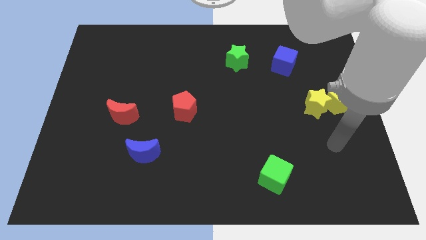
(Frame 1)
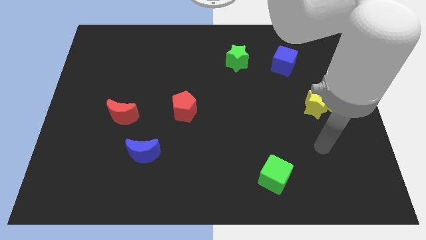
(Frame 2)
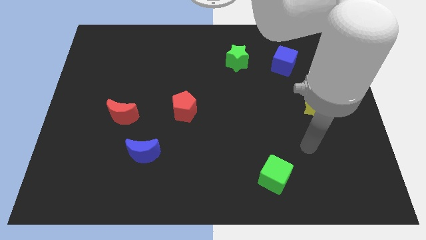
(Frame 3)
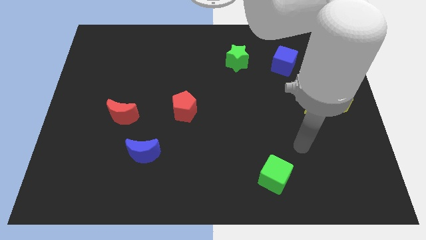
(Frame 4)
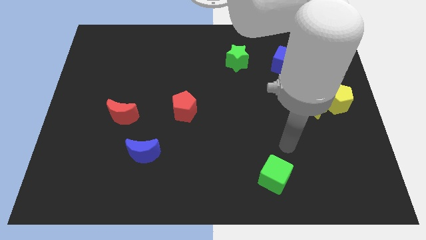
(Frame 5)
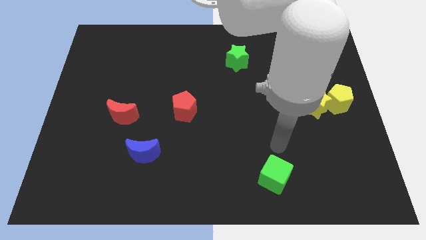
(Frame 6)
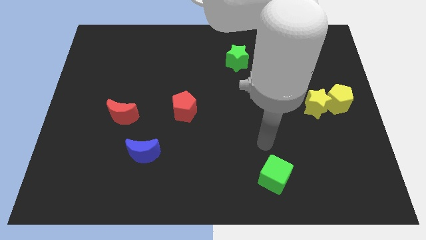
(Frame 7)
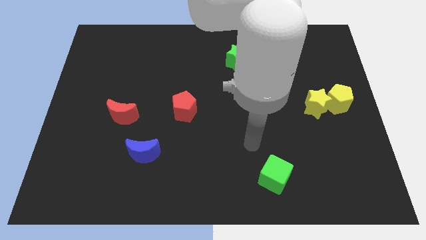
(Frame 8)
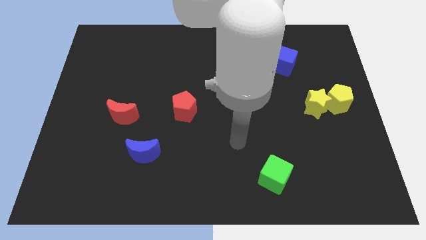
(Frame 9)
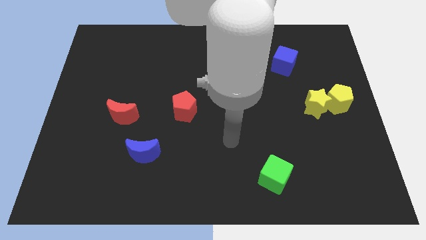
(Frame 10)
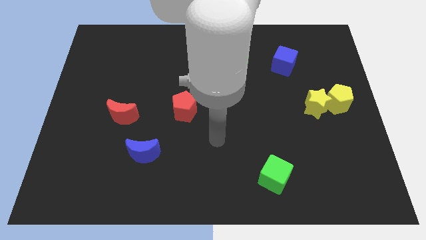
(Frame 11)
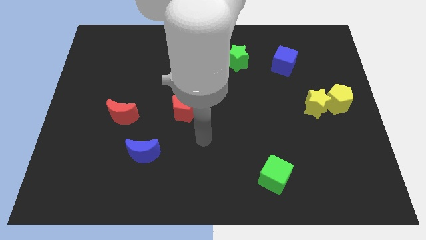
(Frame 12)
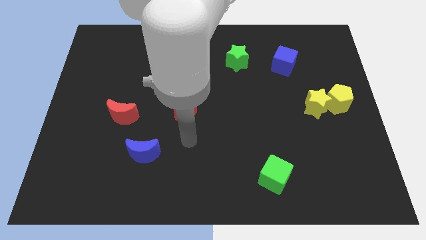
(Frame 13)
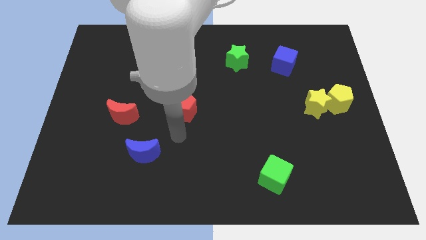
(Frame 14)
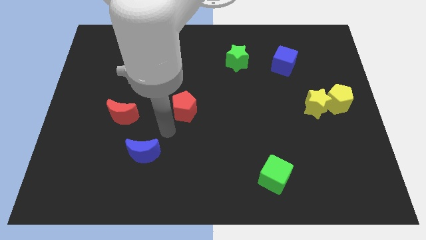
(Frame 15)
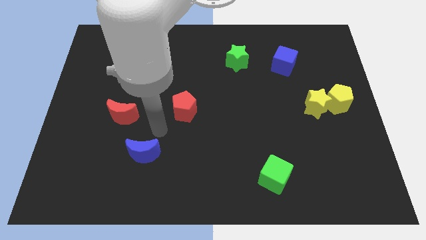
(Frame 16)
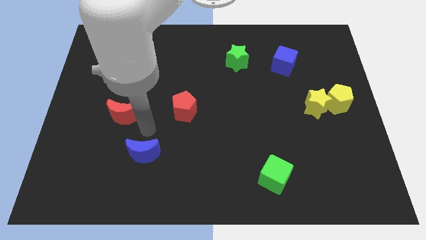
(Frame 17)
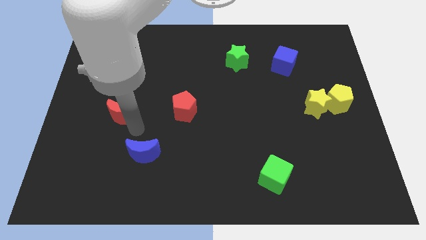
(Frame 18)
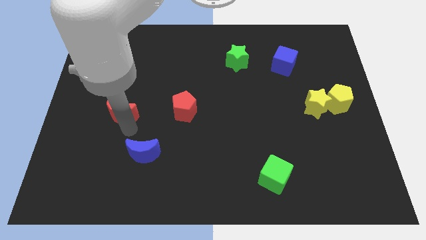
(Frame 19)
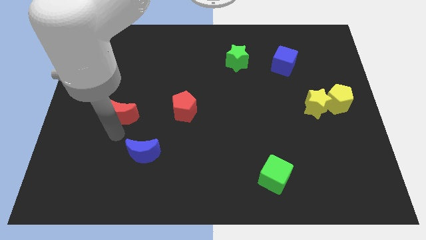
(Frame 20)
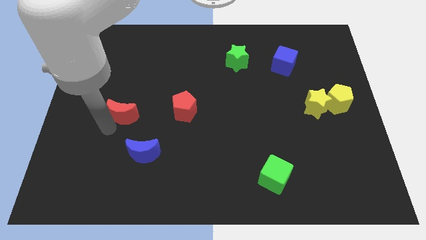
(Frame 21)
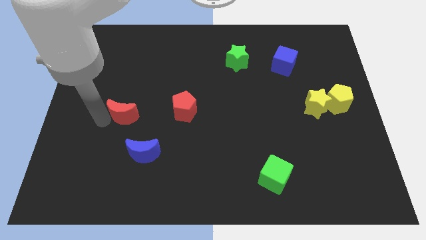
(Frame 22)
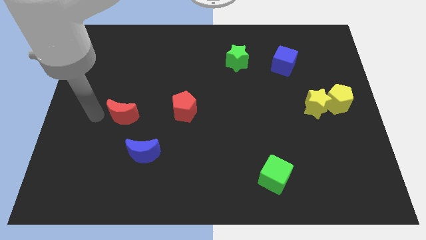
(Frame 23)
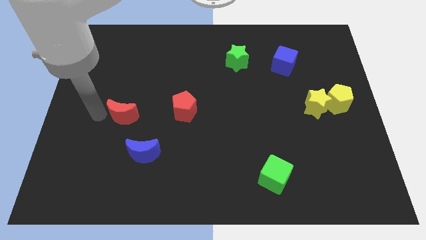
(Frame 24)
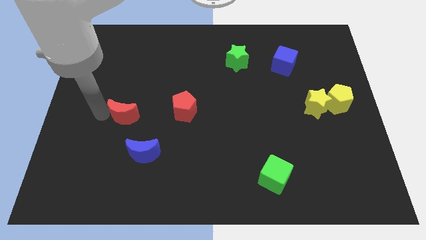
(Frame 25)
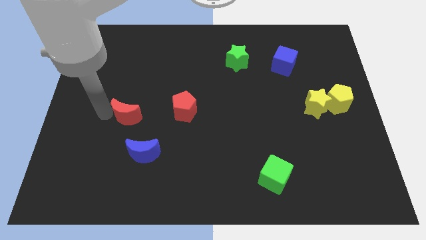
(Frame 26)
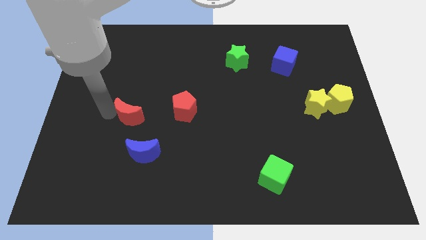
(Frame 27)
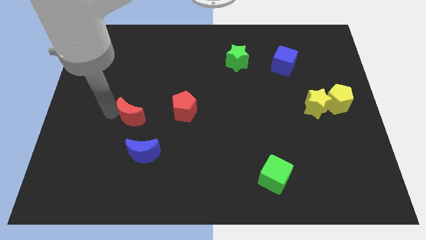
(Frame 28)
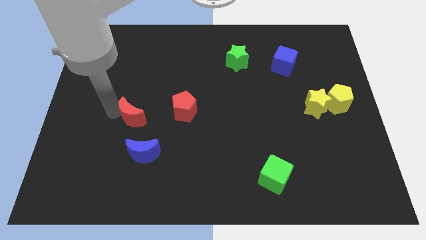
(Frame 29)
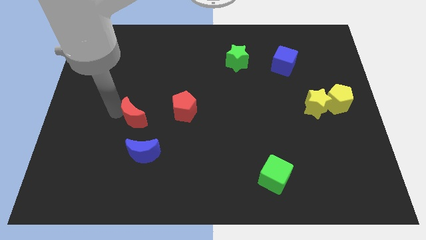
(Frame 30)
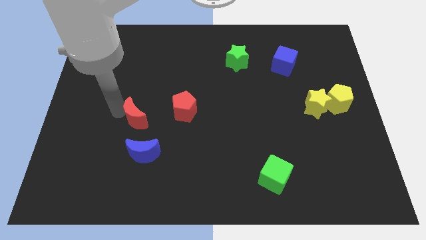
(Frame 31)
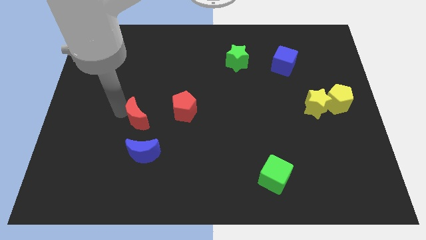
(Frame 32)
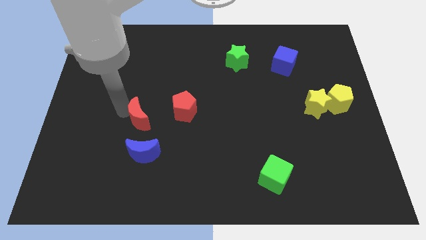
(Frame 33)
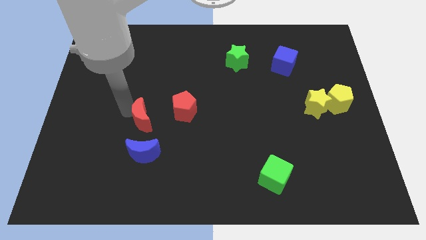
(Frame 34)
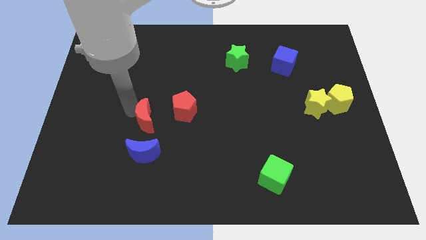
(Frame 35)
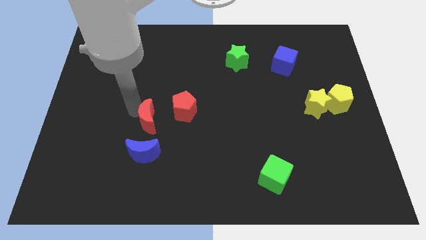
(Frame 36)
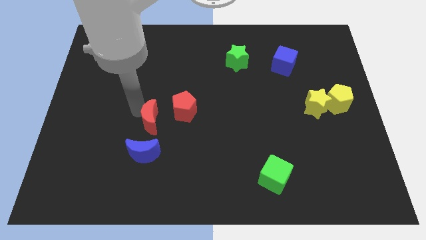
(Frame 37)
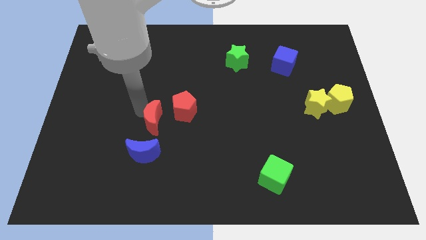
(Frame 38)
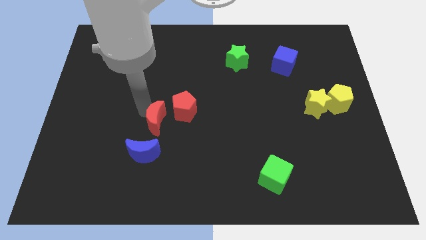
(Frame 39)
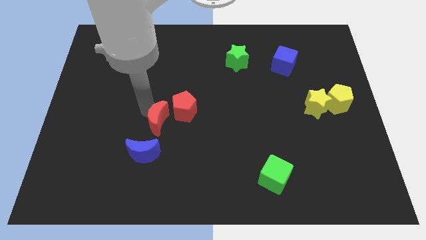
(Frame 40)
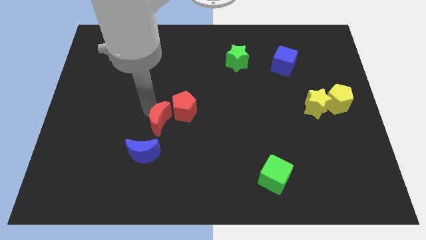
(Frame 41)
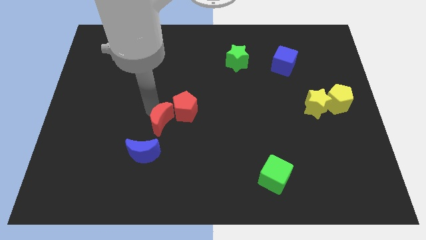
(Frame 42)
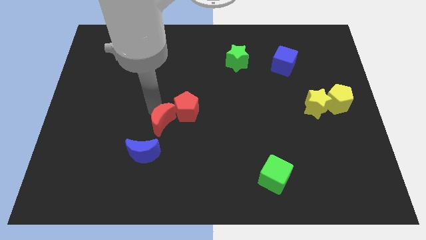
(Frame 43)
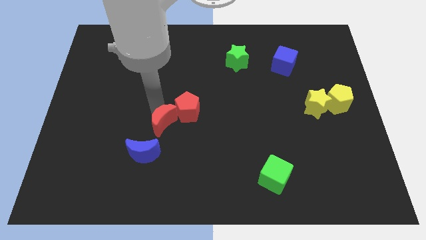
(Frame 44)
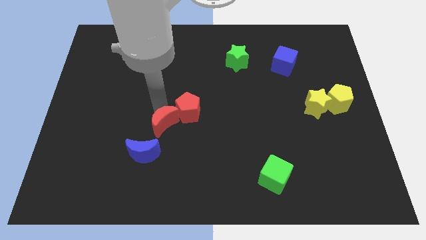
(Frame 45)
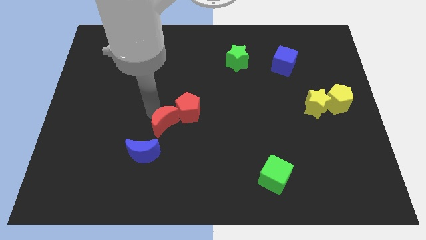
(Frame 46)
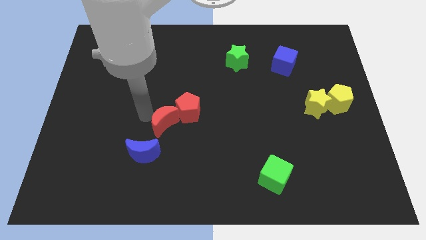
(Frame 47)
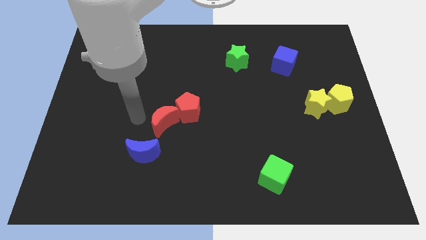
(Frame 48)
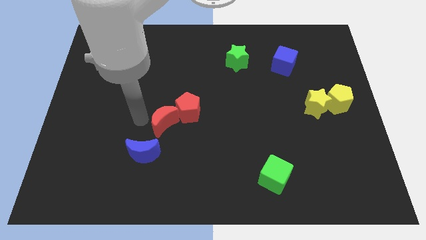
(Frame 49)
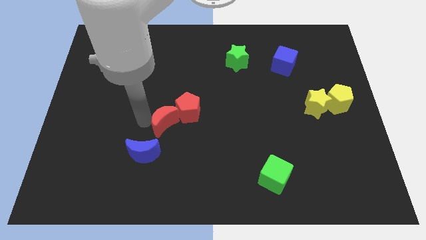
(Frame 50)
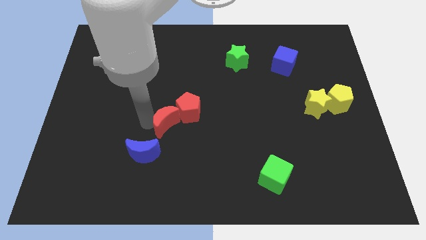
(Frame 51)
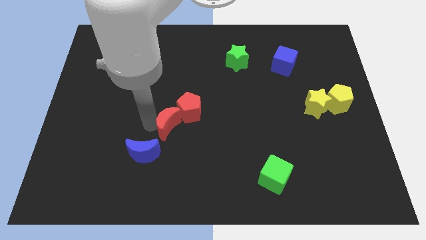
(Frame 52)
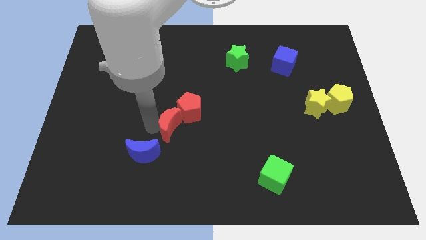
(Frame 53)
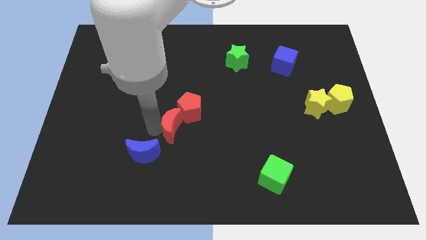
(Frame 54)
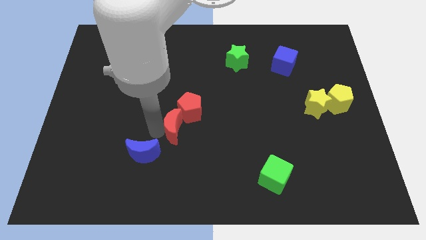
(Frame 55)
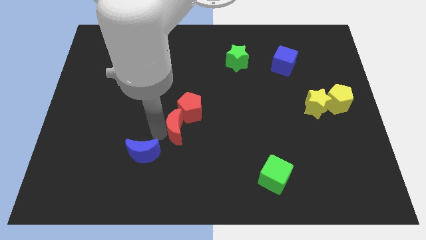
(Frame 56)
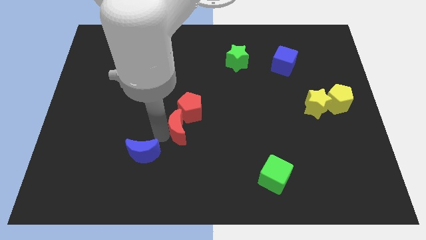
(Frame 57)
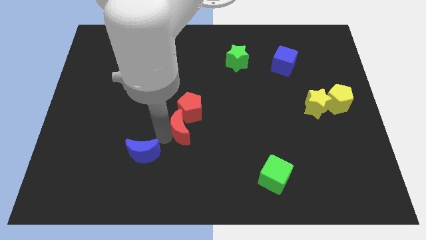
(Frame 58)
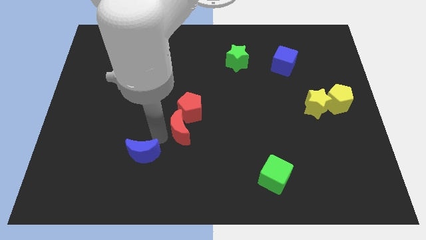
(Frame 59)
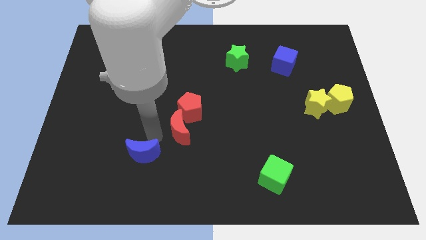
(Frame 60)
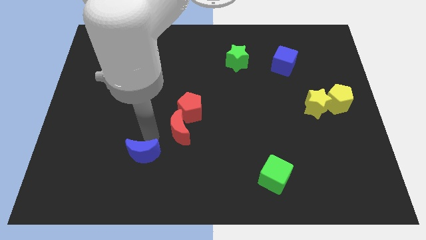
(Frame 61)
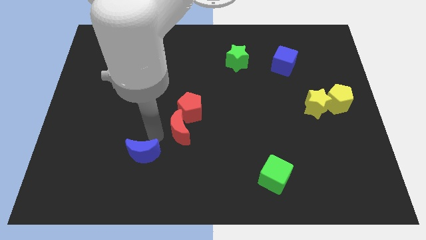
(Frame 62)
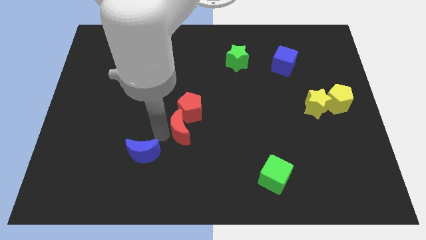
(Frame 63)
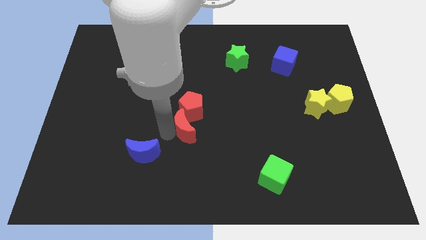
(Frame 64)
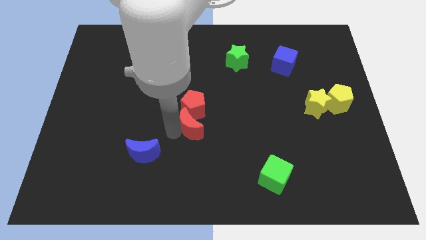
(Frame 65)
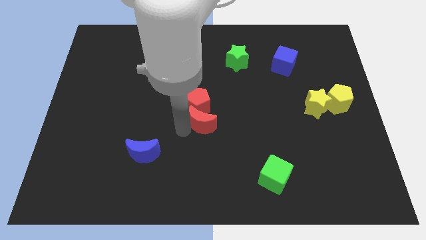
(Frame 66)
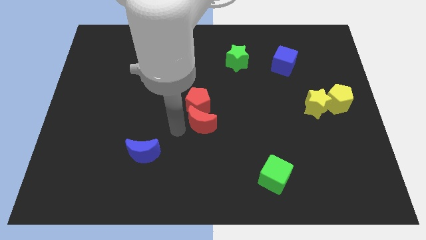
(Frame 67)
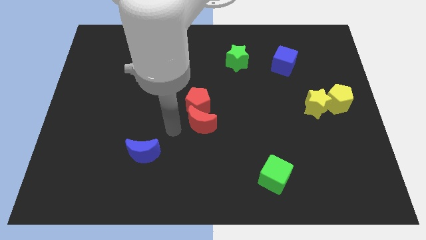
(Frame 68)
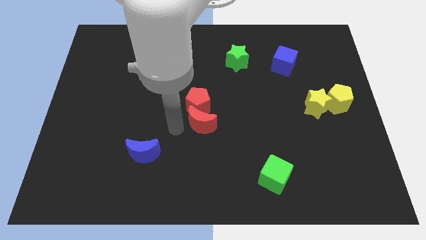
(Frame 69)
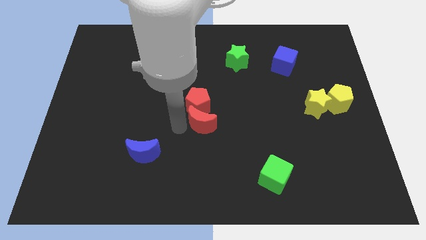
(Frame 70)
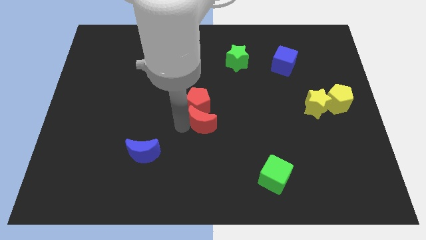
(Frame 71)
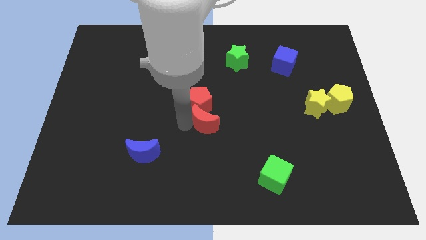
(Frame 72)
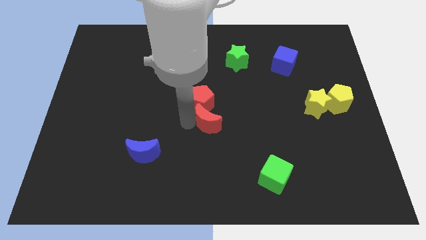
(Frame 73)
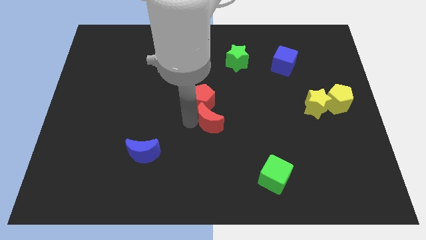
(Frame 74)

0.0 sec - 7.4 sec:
move the red moon right

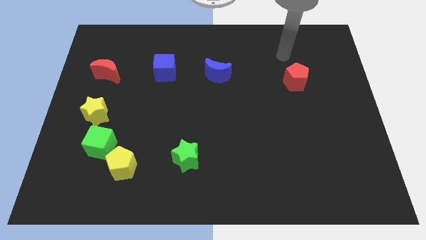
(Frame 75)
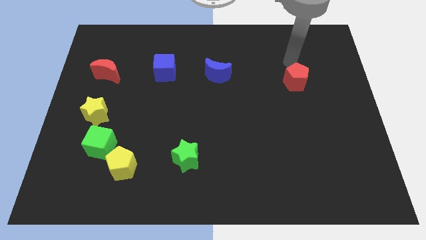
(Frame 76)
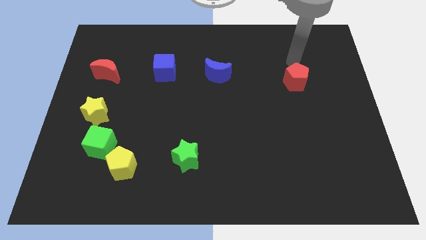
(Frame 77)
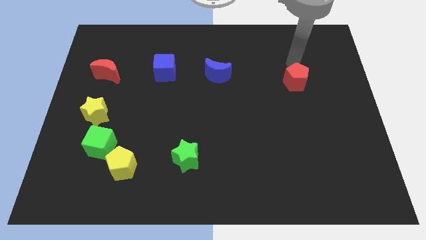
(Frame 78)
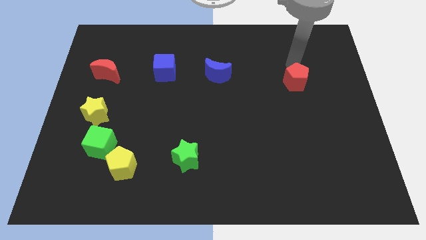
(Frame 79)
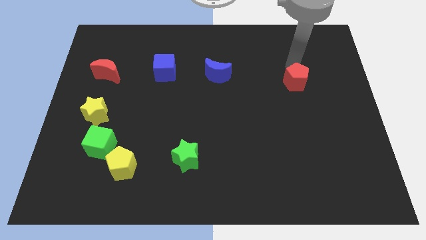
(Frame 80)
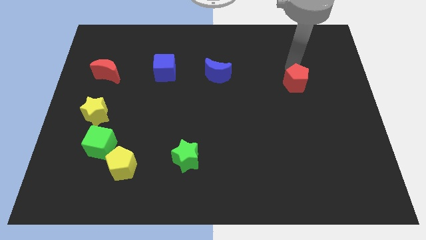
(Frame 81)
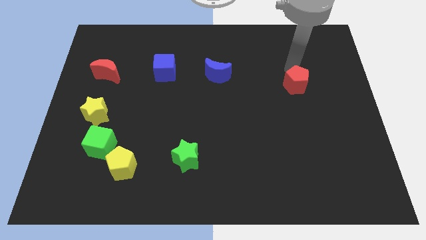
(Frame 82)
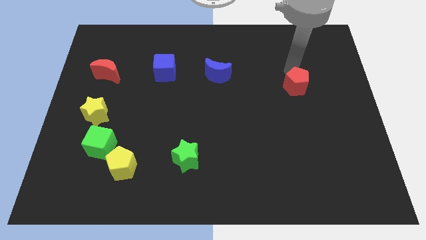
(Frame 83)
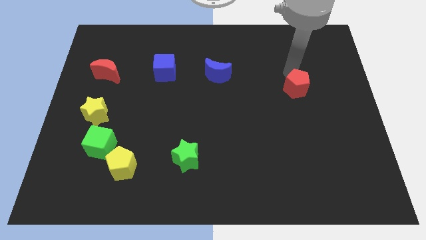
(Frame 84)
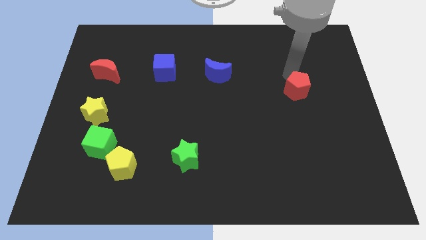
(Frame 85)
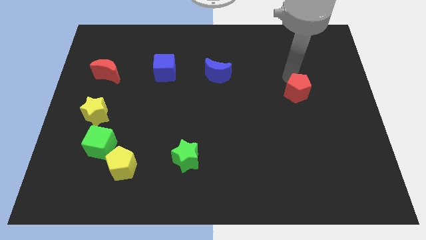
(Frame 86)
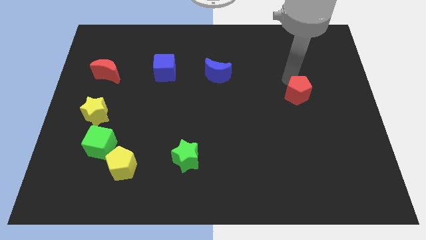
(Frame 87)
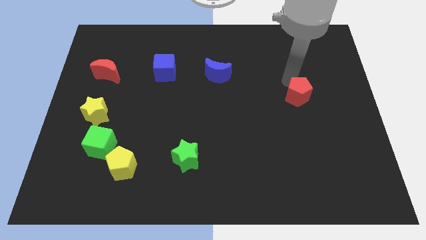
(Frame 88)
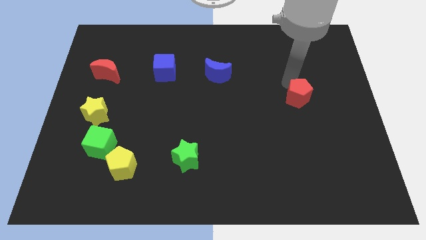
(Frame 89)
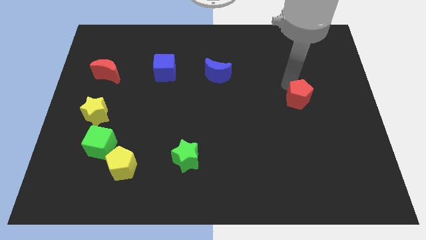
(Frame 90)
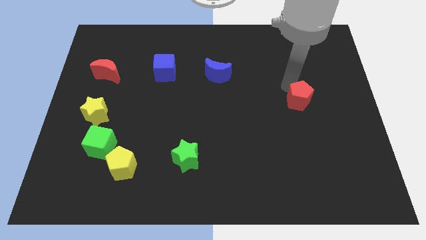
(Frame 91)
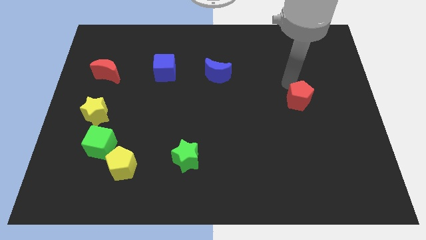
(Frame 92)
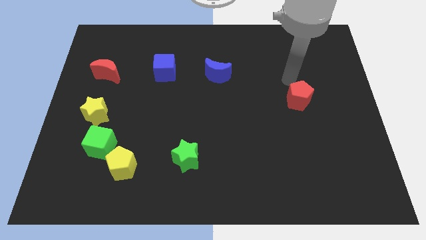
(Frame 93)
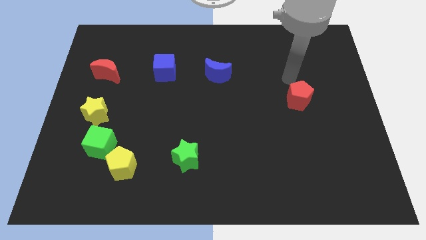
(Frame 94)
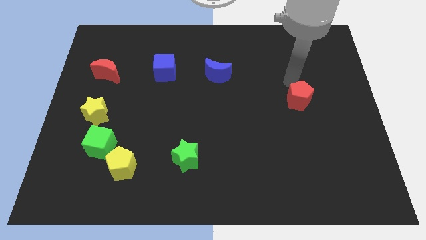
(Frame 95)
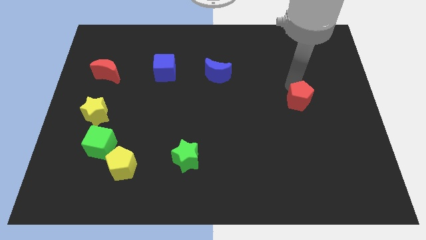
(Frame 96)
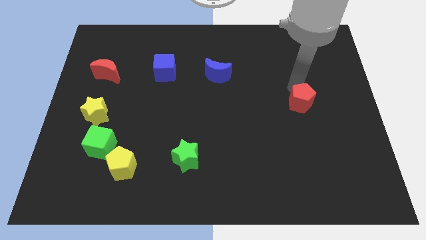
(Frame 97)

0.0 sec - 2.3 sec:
move the red pentagon down somewhat
